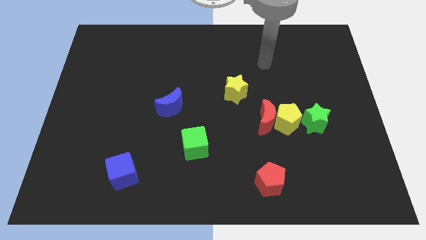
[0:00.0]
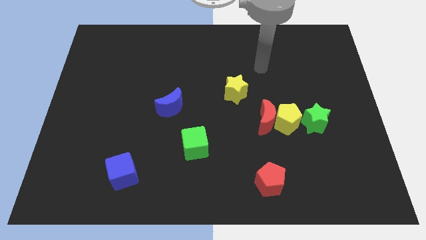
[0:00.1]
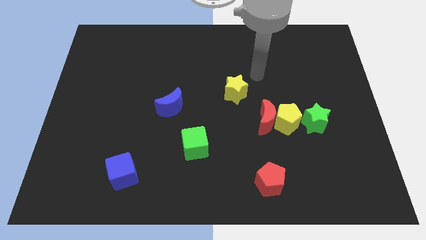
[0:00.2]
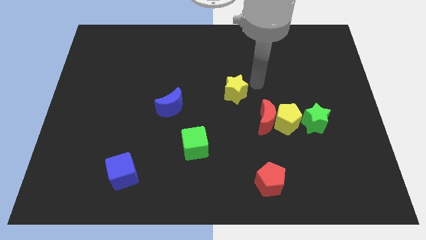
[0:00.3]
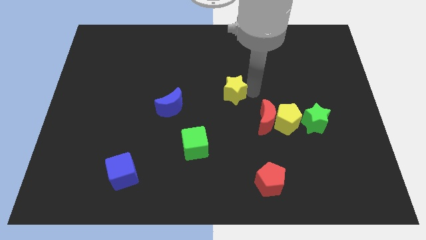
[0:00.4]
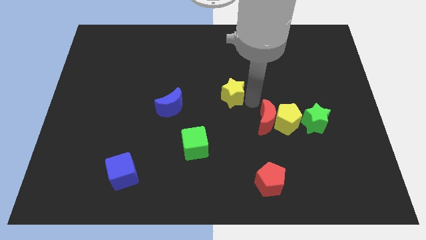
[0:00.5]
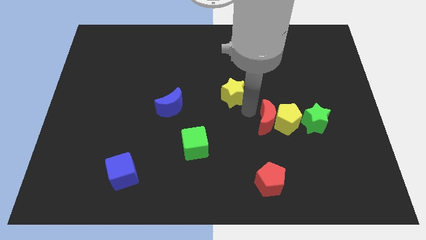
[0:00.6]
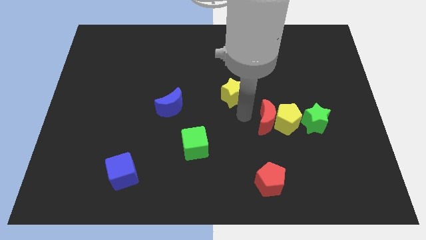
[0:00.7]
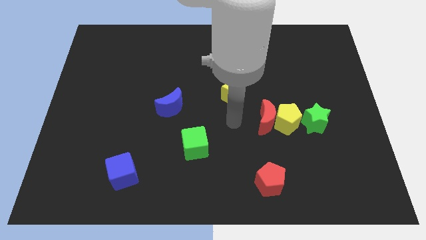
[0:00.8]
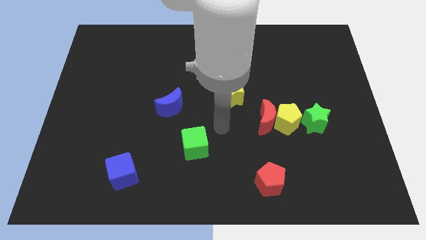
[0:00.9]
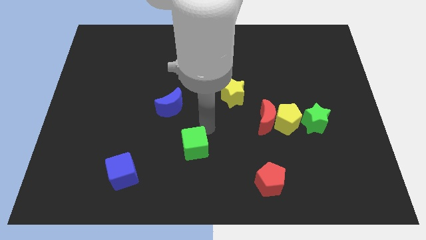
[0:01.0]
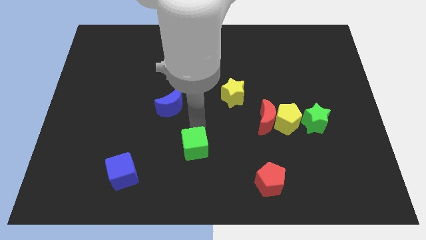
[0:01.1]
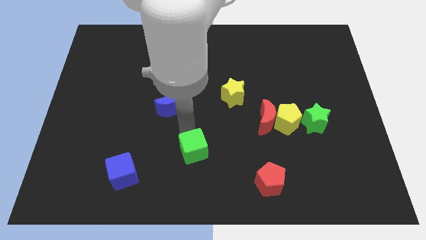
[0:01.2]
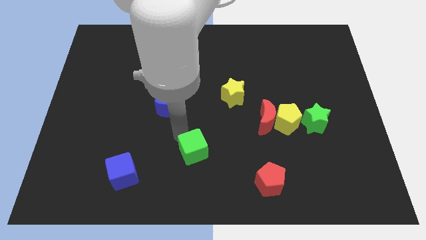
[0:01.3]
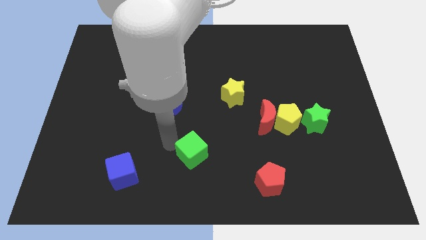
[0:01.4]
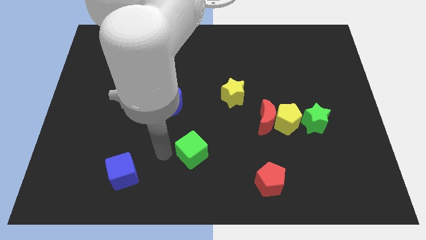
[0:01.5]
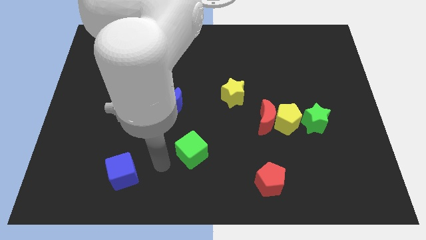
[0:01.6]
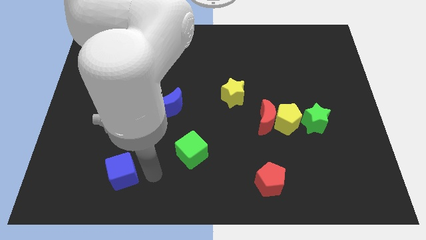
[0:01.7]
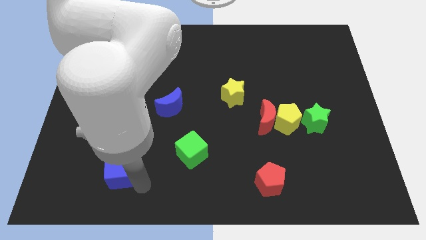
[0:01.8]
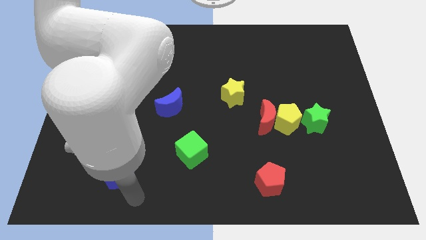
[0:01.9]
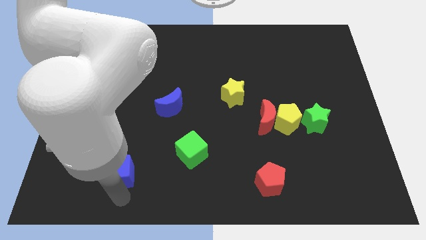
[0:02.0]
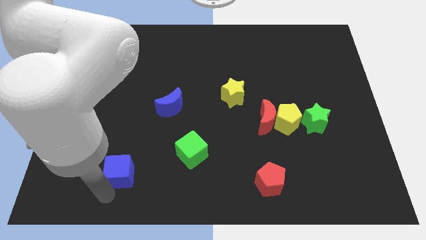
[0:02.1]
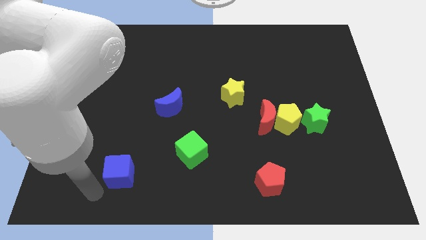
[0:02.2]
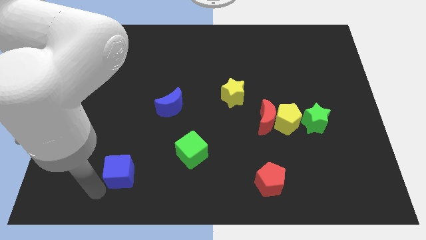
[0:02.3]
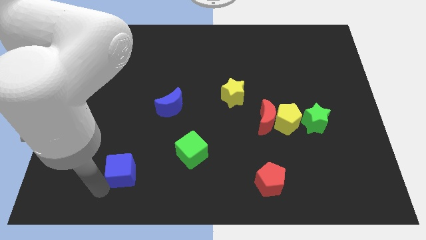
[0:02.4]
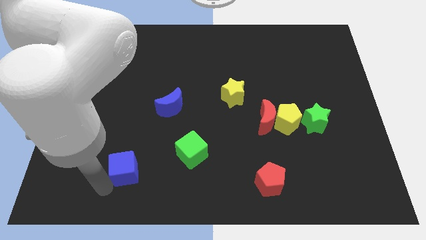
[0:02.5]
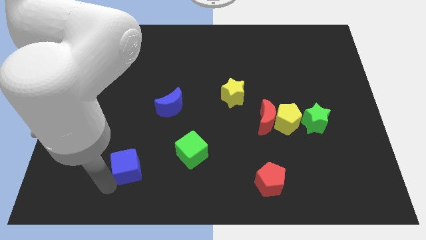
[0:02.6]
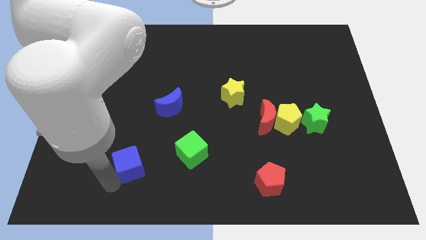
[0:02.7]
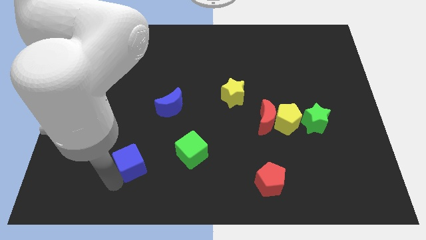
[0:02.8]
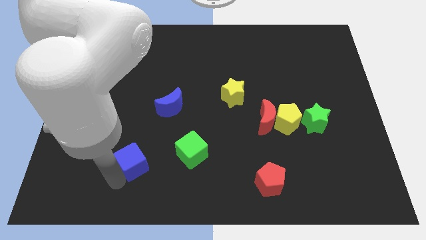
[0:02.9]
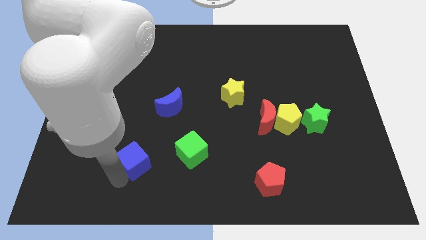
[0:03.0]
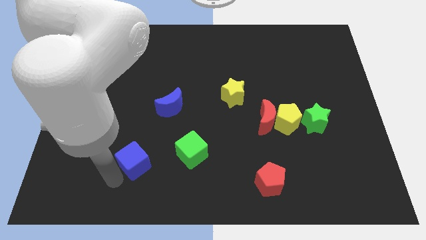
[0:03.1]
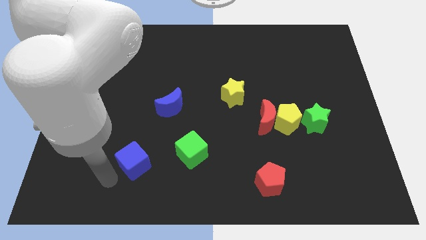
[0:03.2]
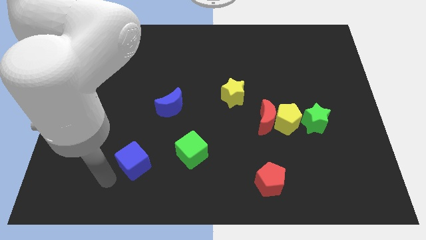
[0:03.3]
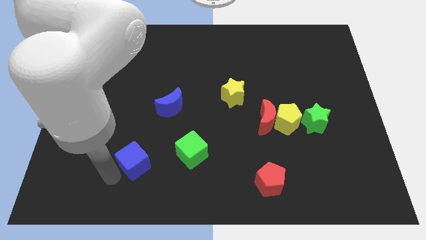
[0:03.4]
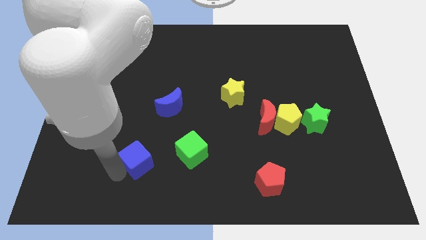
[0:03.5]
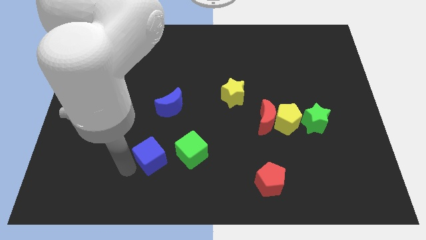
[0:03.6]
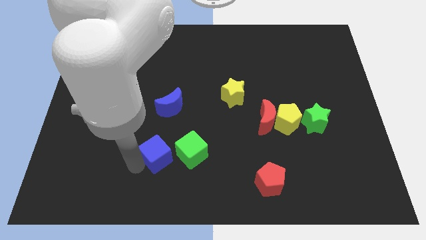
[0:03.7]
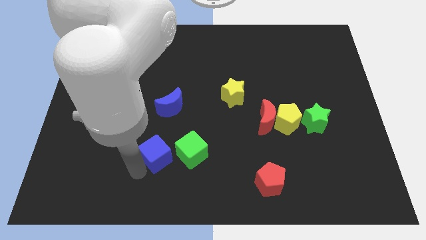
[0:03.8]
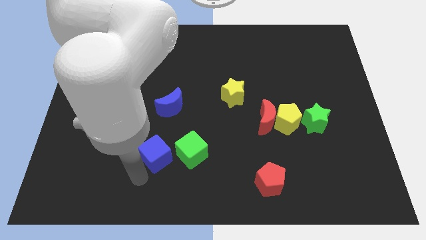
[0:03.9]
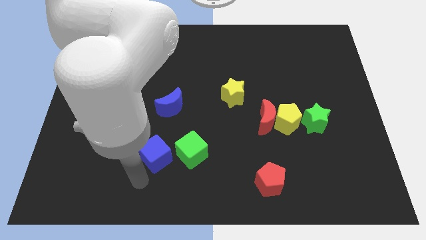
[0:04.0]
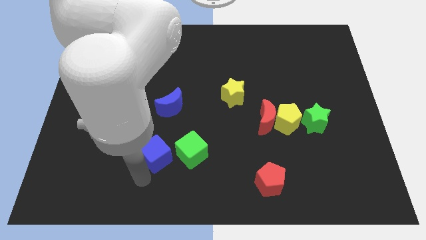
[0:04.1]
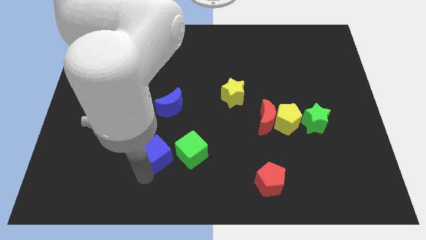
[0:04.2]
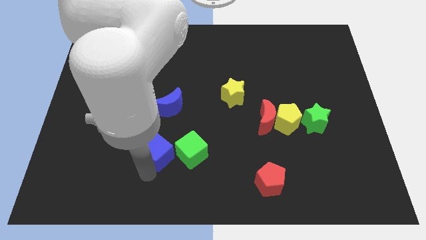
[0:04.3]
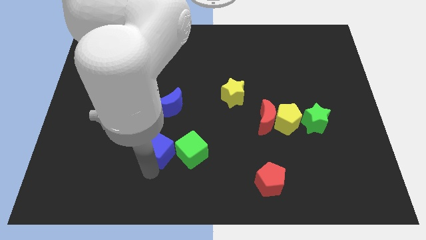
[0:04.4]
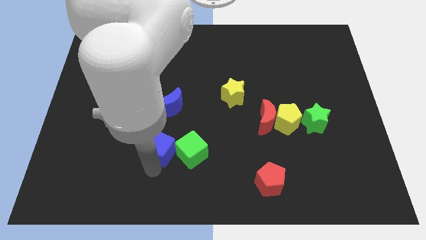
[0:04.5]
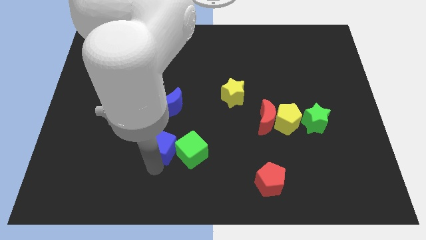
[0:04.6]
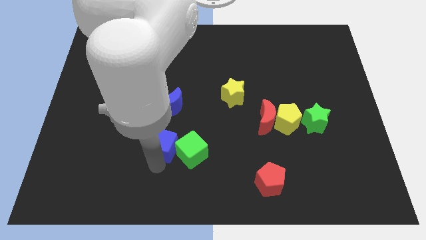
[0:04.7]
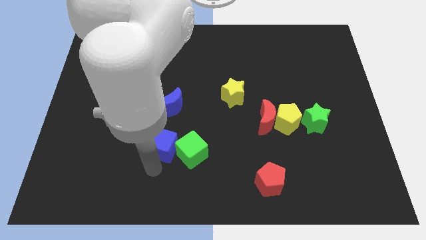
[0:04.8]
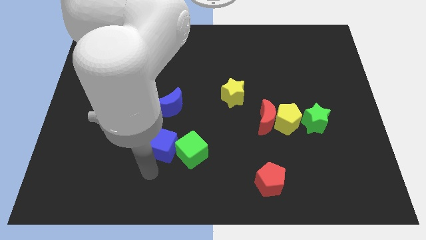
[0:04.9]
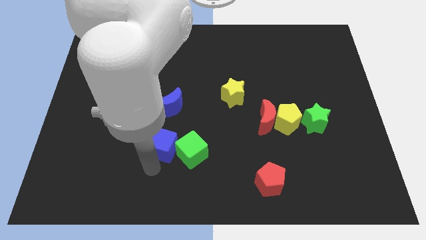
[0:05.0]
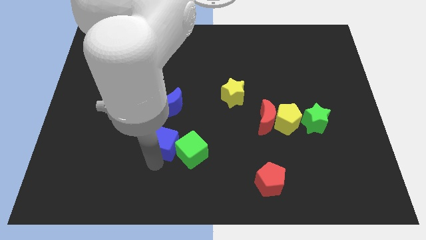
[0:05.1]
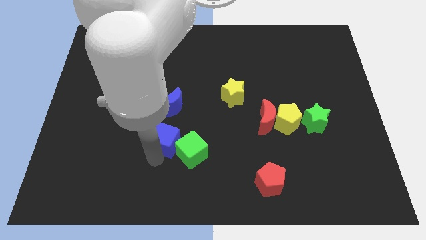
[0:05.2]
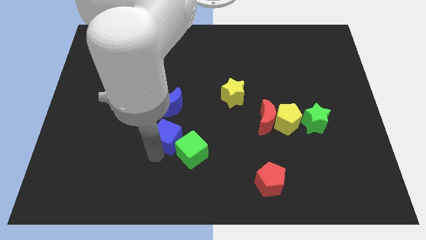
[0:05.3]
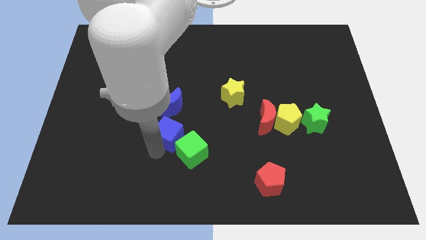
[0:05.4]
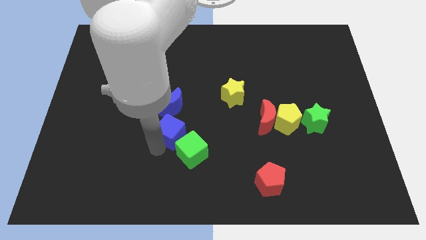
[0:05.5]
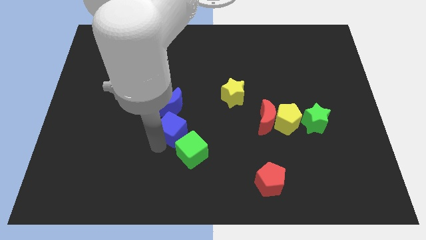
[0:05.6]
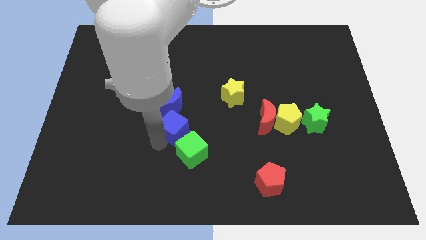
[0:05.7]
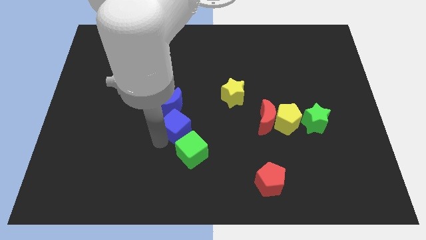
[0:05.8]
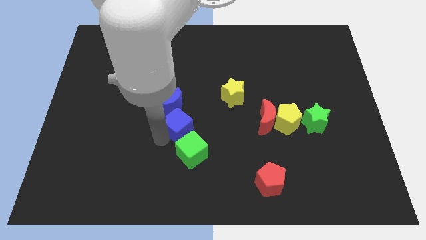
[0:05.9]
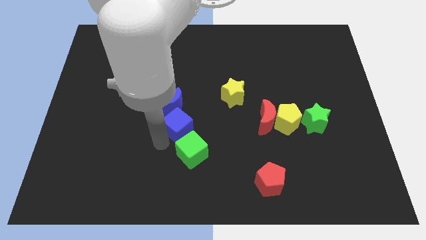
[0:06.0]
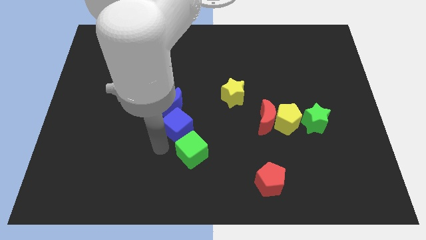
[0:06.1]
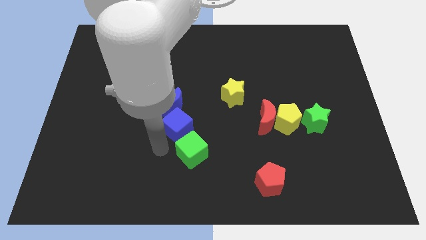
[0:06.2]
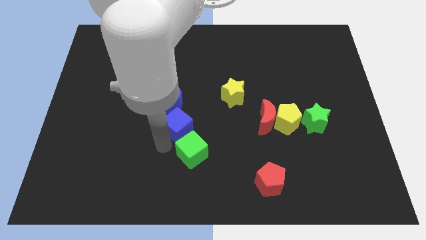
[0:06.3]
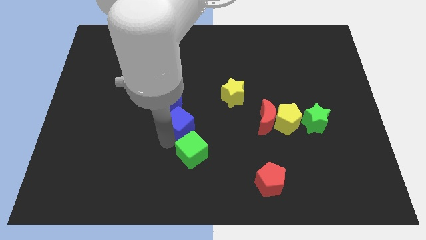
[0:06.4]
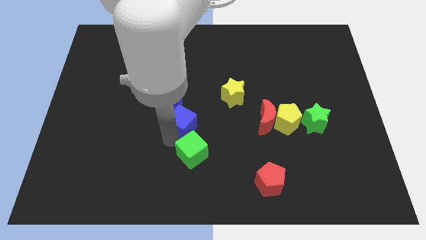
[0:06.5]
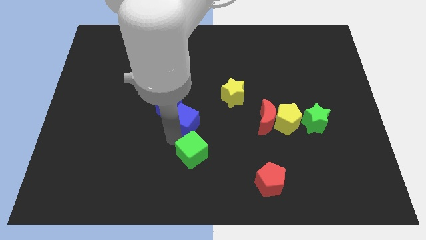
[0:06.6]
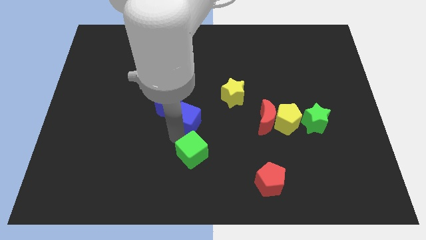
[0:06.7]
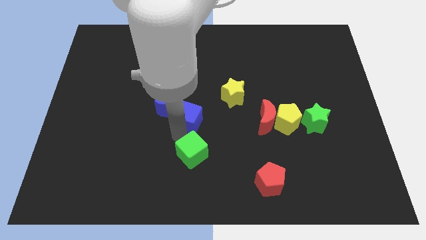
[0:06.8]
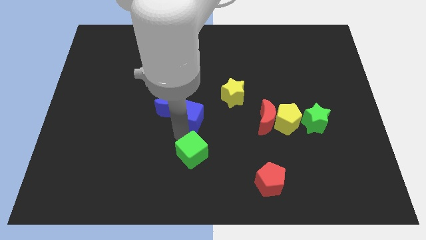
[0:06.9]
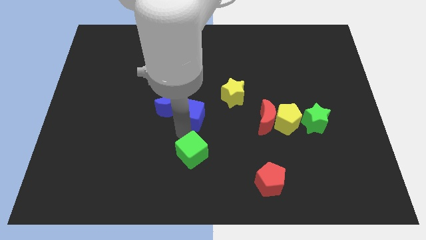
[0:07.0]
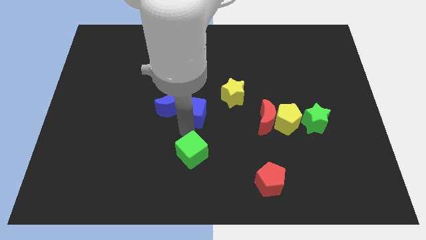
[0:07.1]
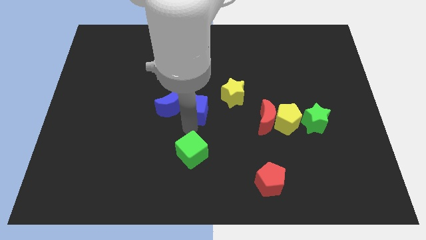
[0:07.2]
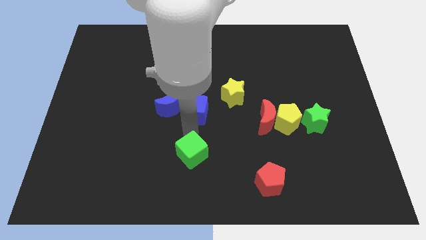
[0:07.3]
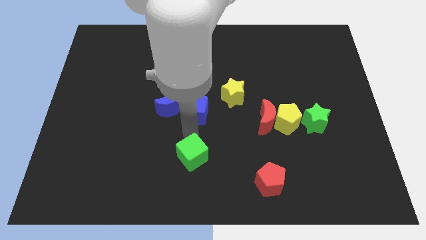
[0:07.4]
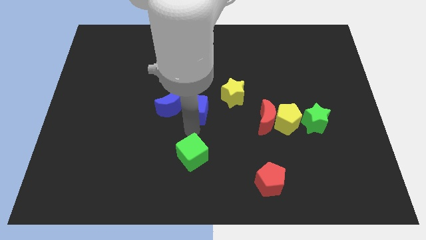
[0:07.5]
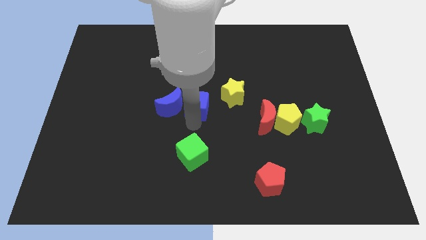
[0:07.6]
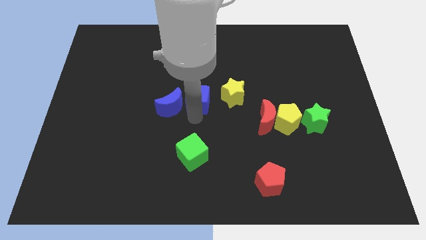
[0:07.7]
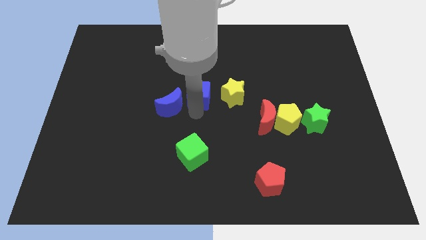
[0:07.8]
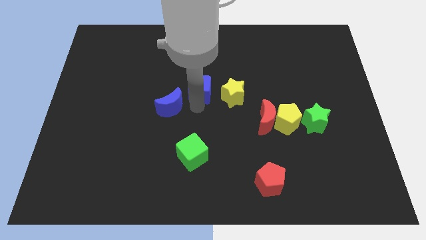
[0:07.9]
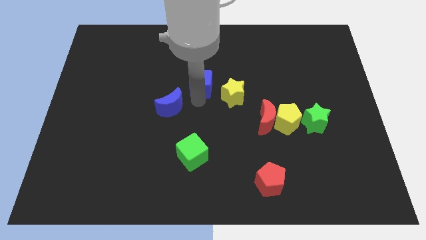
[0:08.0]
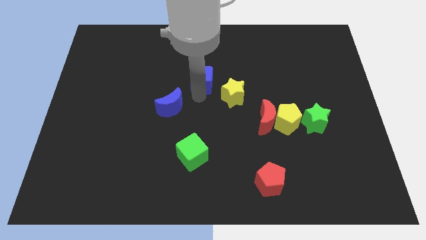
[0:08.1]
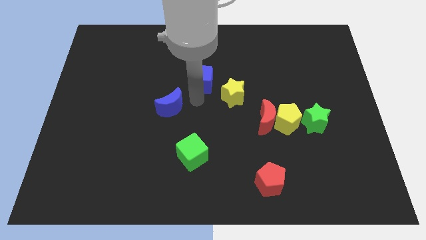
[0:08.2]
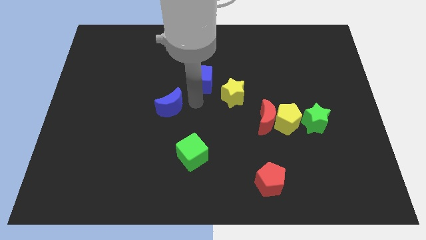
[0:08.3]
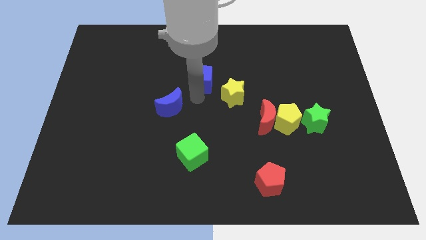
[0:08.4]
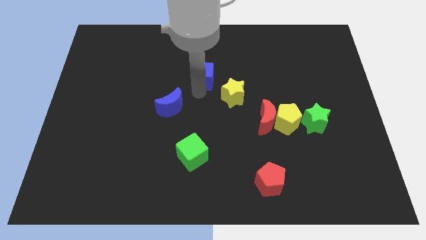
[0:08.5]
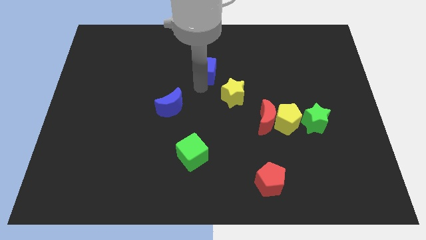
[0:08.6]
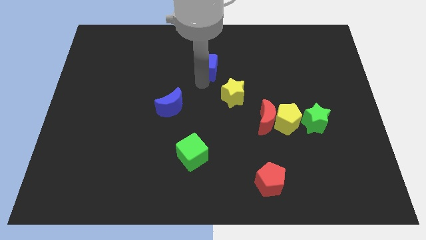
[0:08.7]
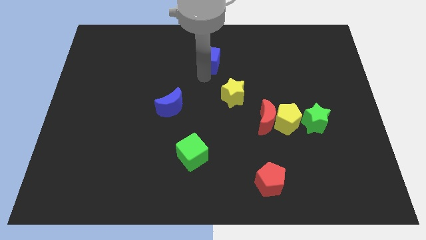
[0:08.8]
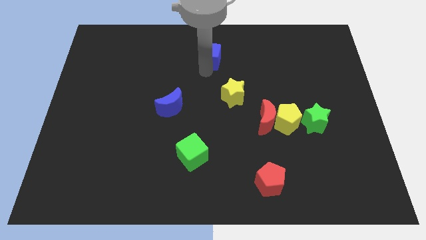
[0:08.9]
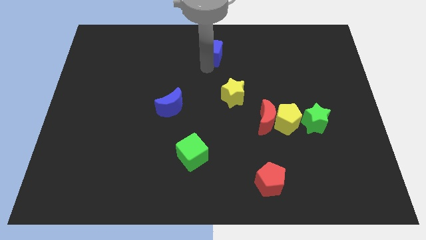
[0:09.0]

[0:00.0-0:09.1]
push the blue cube to the towards your base
